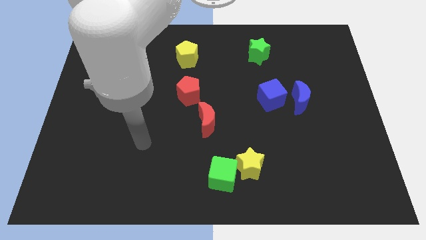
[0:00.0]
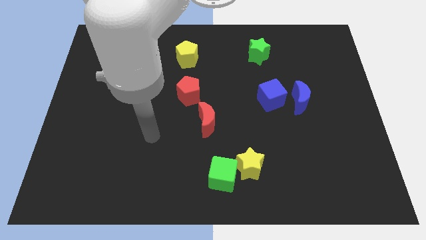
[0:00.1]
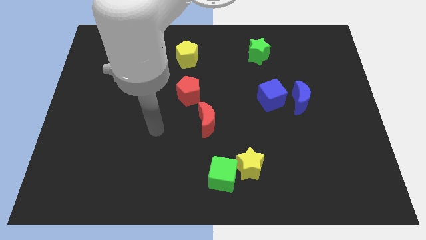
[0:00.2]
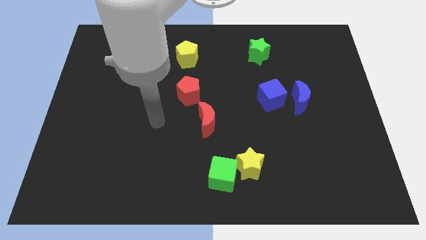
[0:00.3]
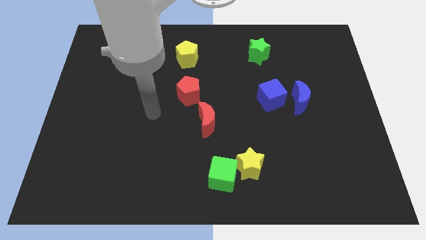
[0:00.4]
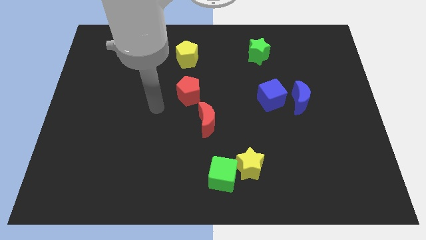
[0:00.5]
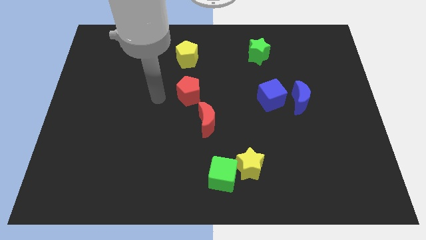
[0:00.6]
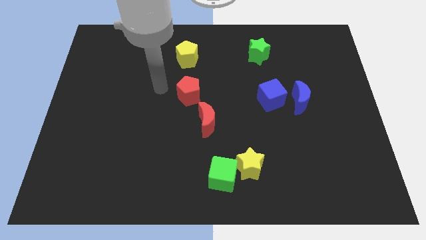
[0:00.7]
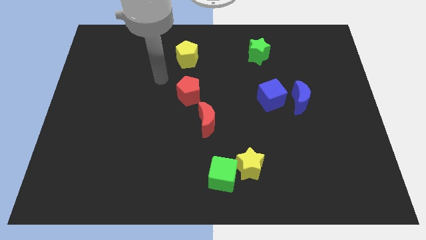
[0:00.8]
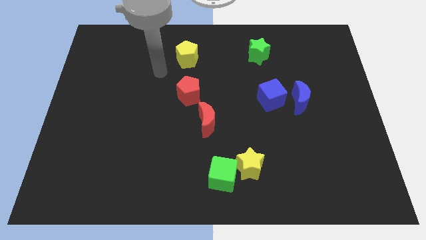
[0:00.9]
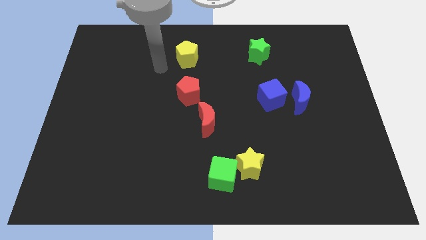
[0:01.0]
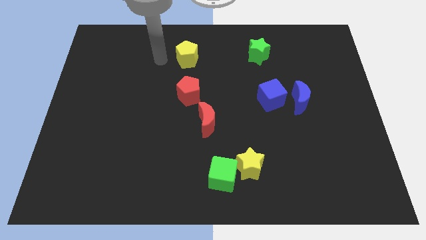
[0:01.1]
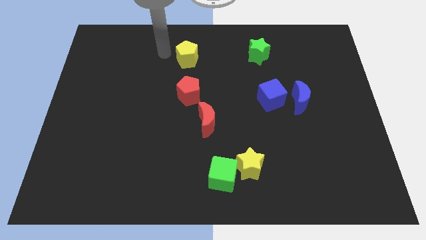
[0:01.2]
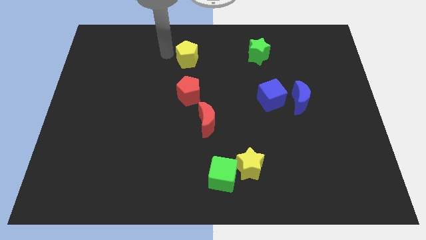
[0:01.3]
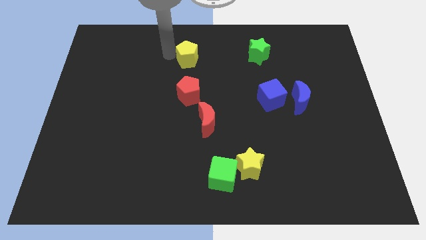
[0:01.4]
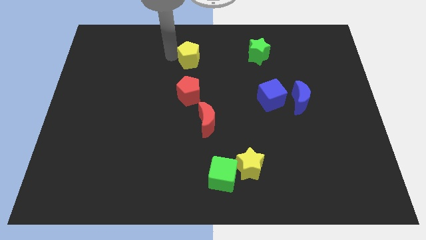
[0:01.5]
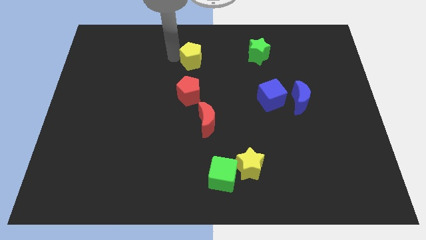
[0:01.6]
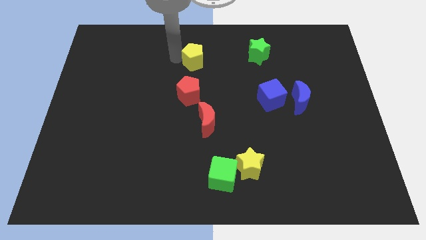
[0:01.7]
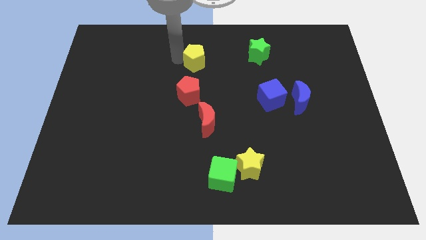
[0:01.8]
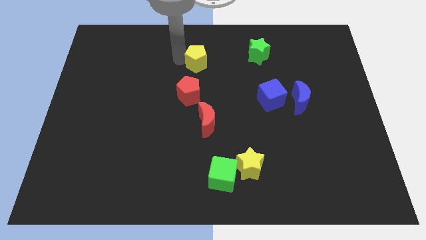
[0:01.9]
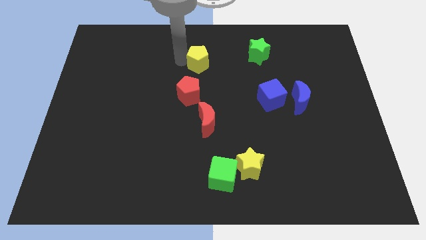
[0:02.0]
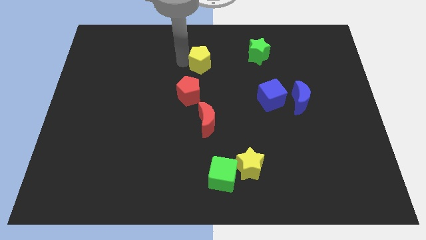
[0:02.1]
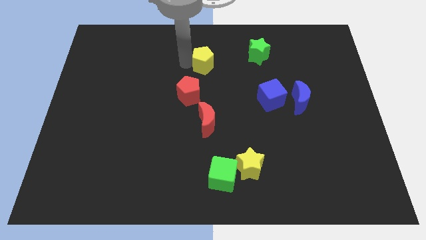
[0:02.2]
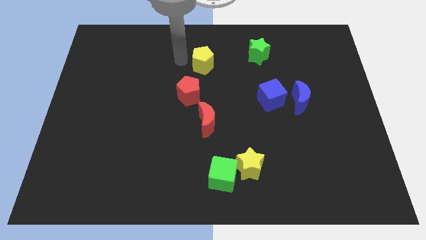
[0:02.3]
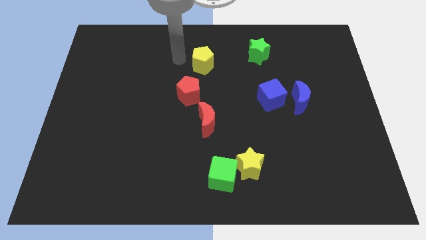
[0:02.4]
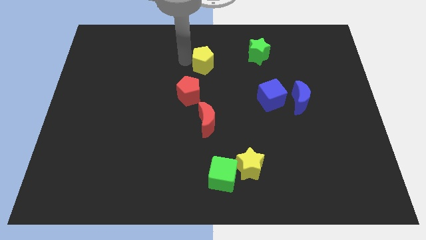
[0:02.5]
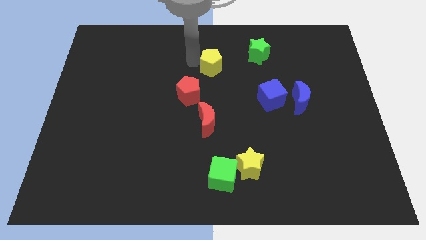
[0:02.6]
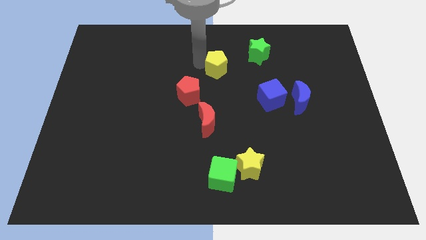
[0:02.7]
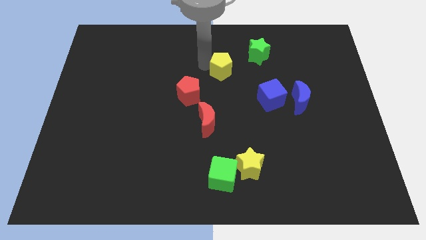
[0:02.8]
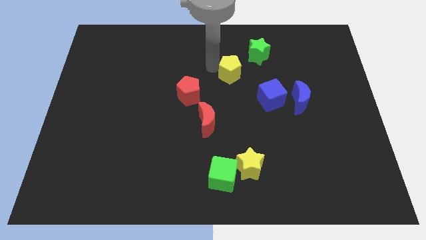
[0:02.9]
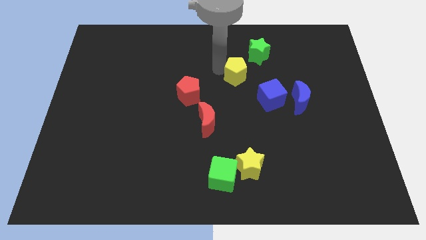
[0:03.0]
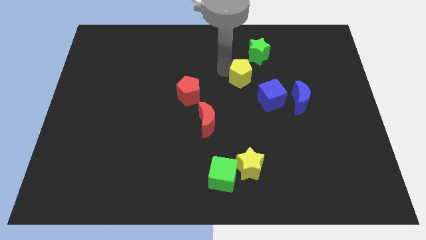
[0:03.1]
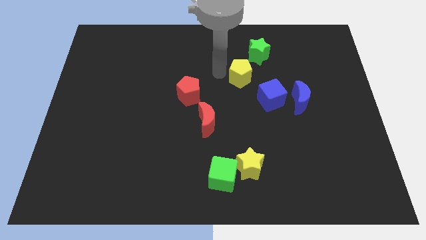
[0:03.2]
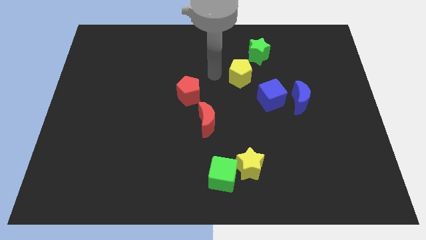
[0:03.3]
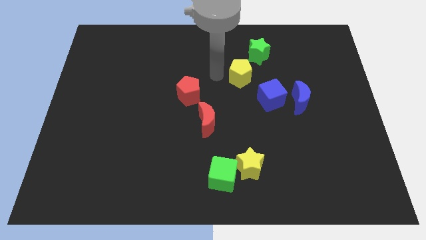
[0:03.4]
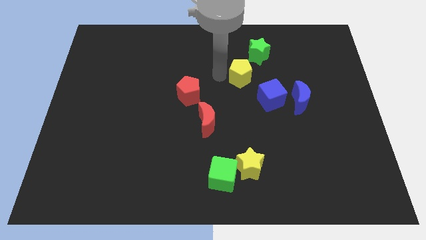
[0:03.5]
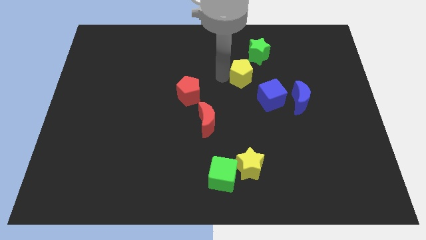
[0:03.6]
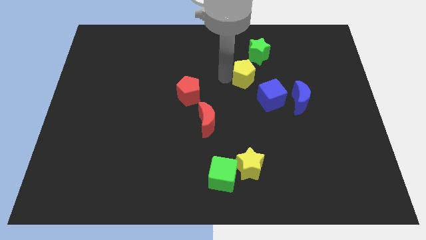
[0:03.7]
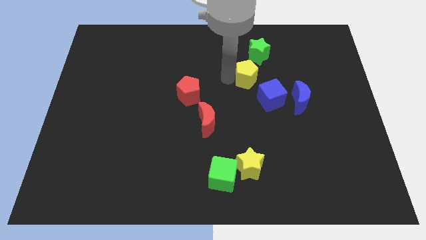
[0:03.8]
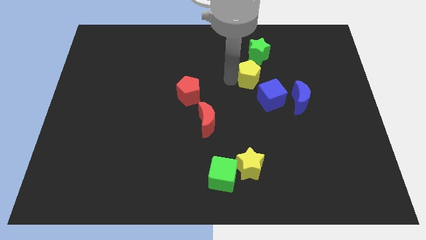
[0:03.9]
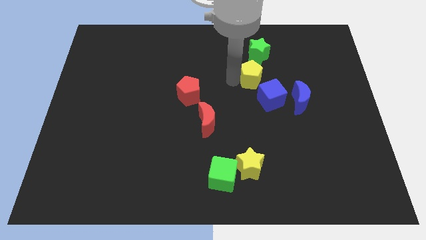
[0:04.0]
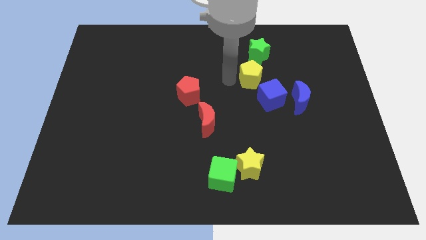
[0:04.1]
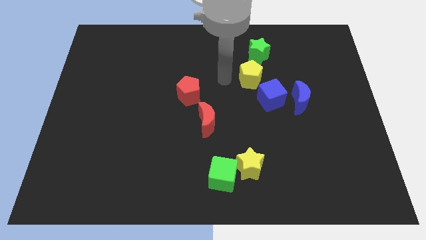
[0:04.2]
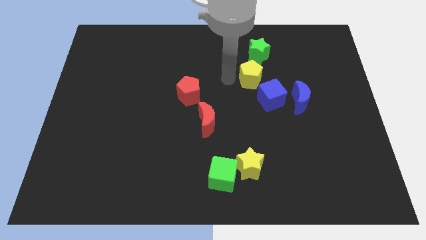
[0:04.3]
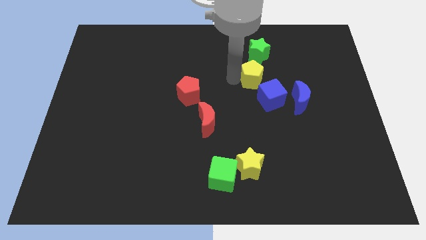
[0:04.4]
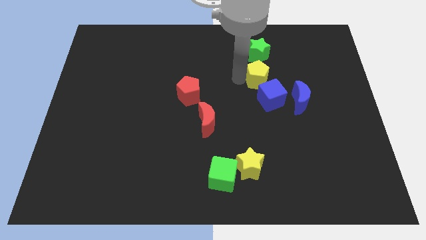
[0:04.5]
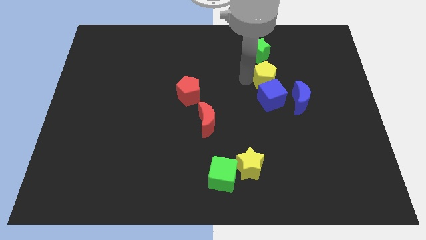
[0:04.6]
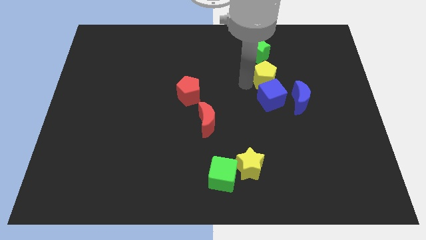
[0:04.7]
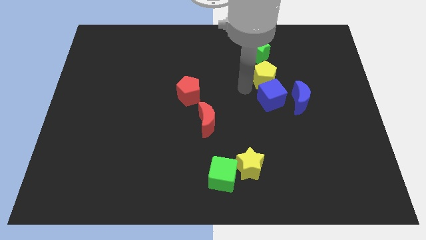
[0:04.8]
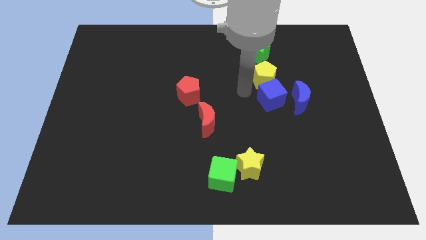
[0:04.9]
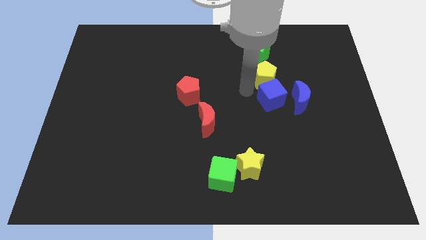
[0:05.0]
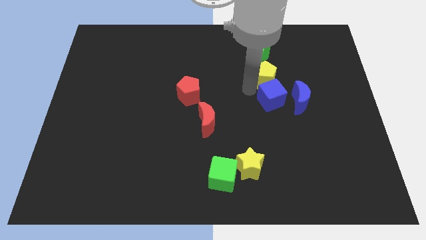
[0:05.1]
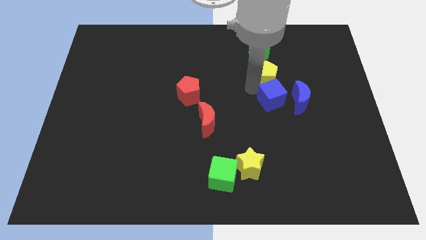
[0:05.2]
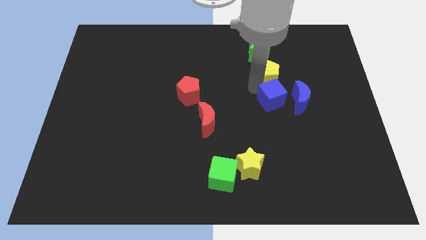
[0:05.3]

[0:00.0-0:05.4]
slide the yellow pentagon diagonally down and to the right of the green star

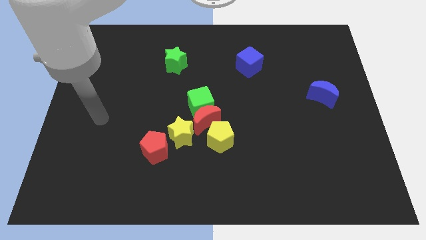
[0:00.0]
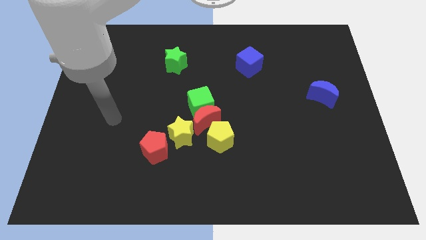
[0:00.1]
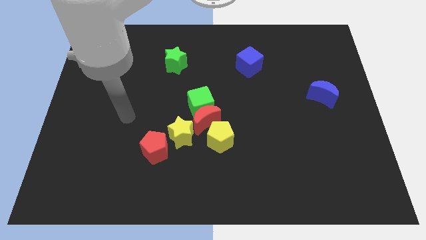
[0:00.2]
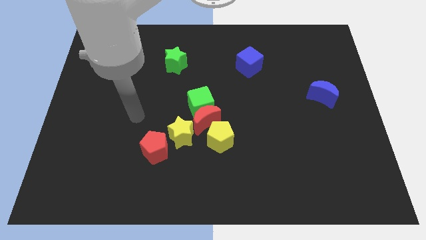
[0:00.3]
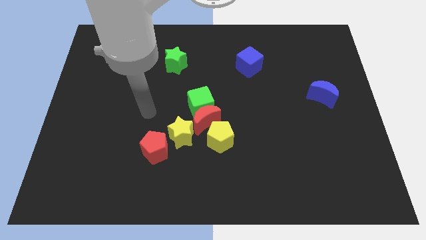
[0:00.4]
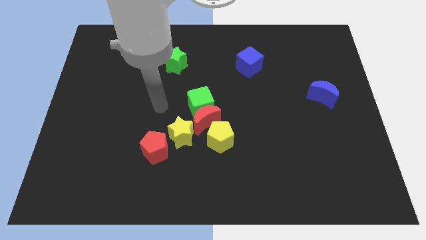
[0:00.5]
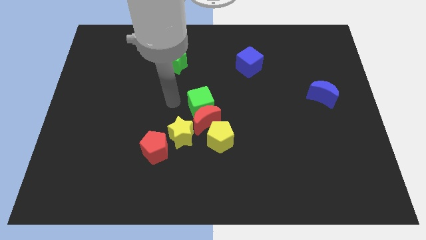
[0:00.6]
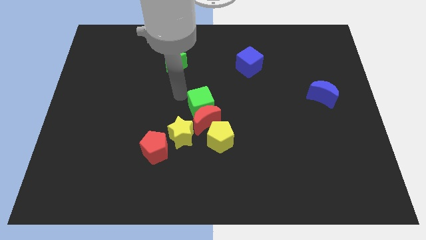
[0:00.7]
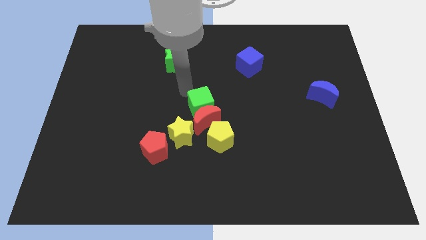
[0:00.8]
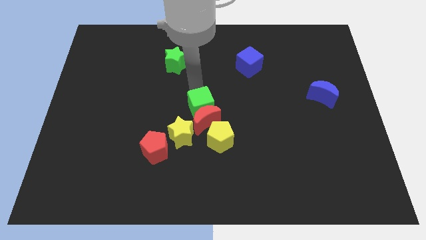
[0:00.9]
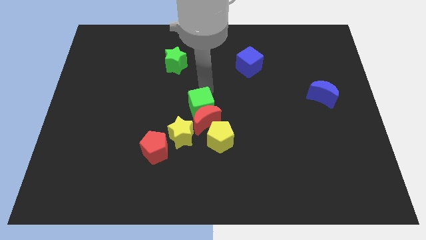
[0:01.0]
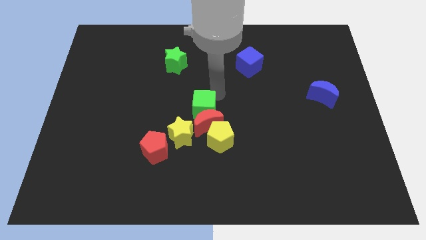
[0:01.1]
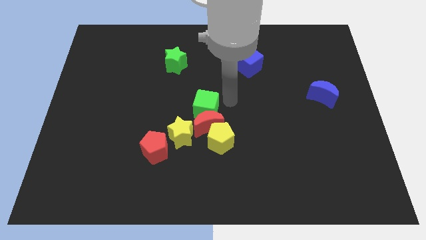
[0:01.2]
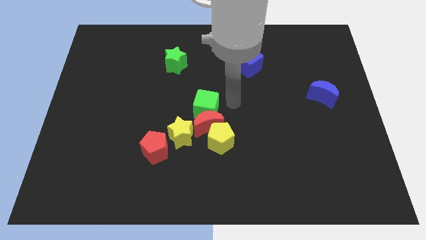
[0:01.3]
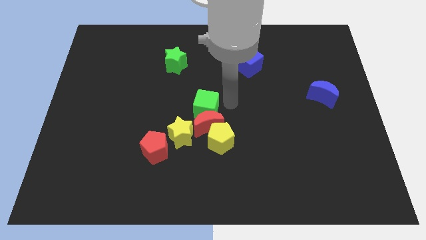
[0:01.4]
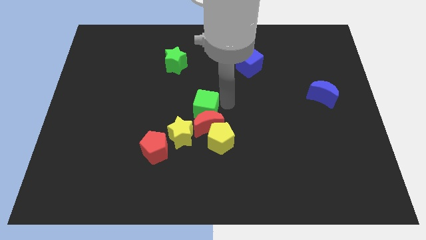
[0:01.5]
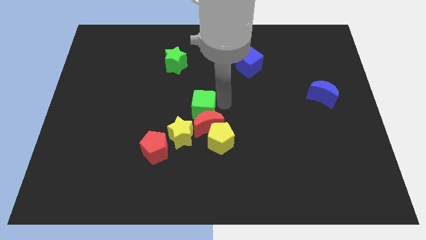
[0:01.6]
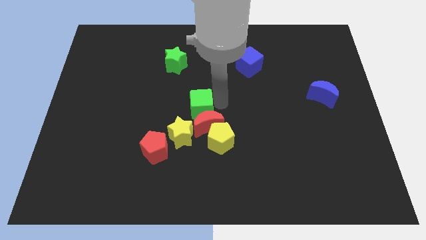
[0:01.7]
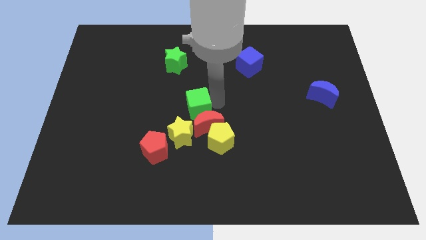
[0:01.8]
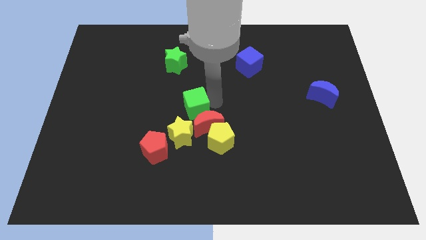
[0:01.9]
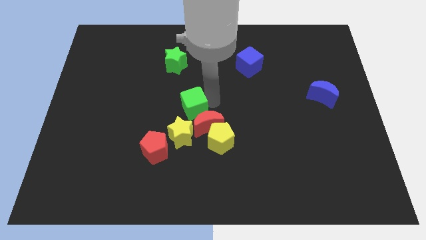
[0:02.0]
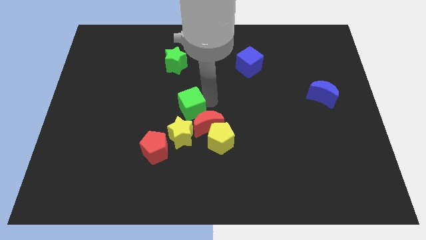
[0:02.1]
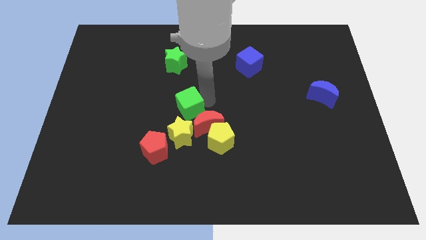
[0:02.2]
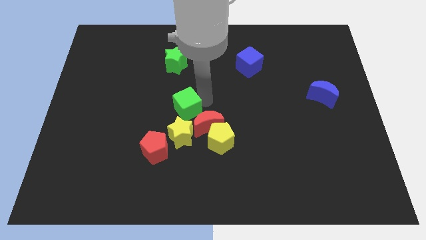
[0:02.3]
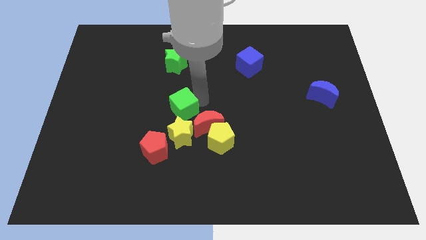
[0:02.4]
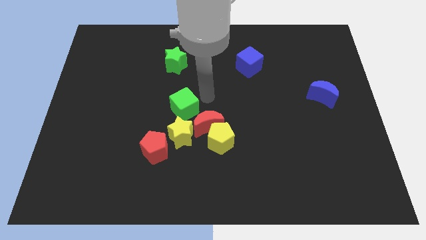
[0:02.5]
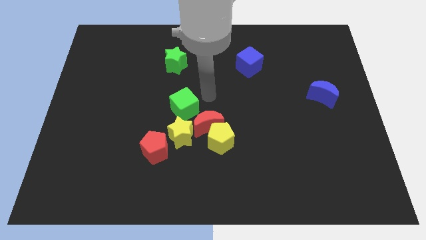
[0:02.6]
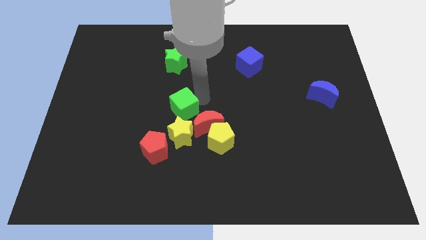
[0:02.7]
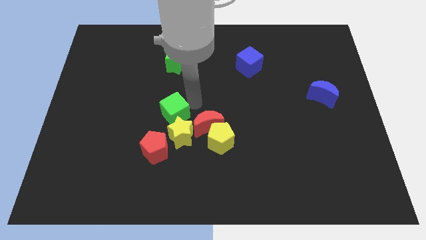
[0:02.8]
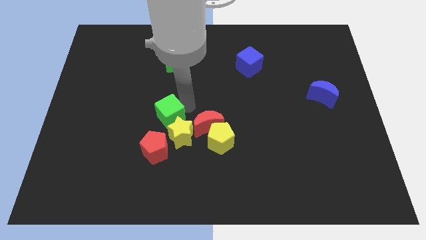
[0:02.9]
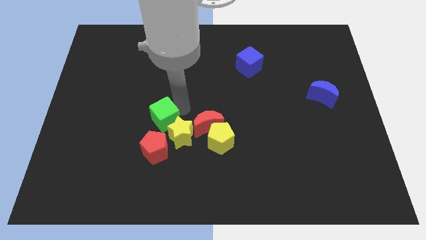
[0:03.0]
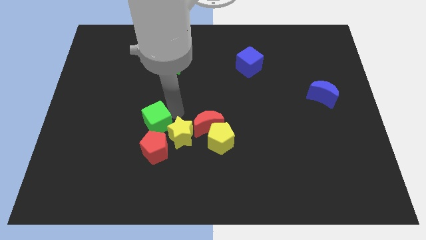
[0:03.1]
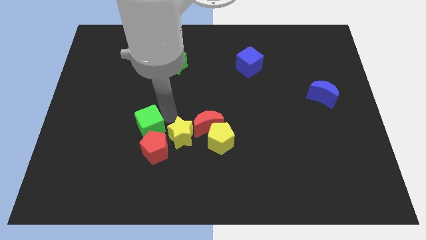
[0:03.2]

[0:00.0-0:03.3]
slide the green cube to the top left side of the red pentagon
